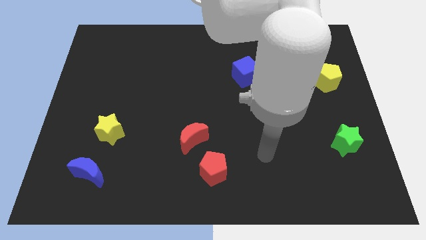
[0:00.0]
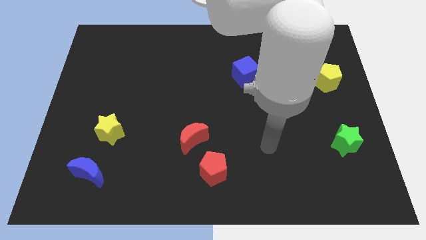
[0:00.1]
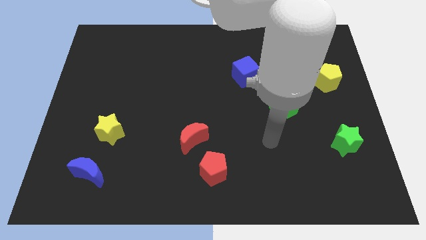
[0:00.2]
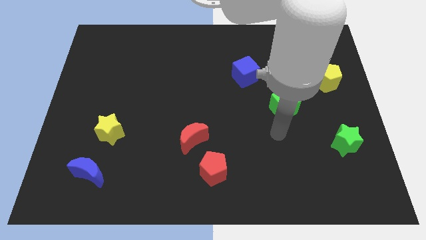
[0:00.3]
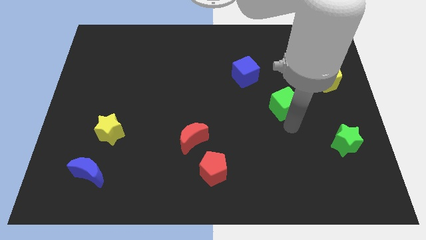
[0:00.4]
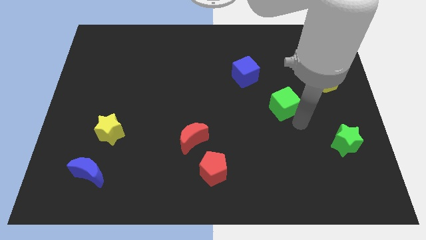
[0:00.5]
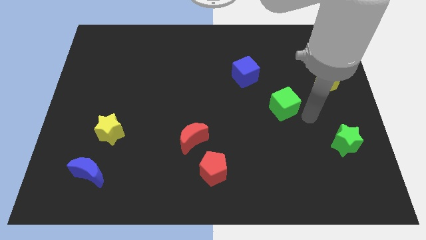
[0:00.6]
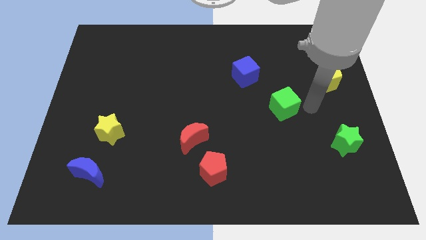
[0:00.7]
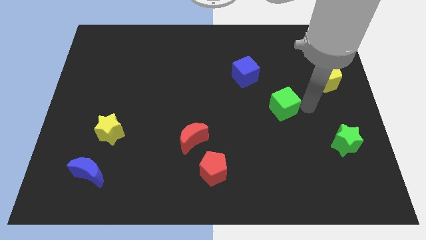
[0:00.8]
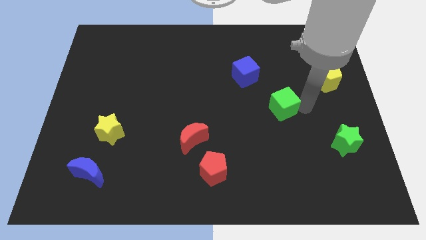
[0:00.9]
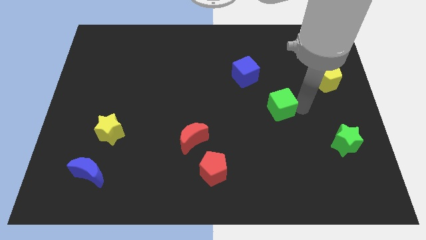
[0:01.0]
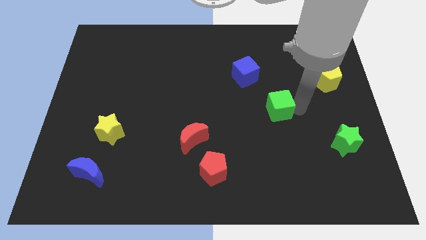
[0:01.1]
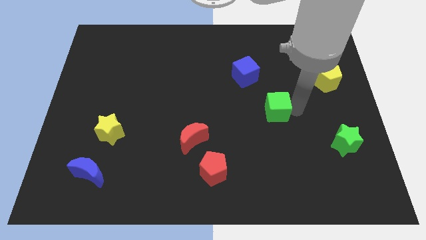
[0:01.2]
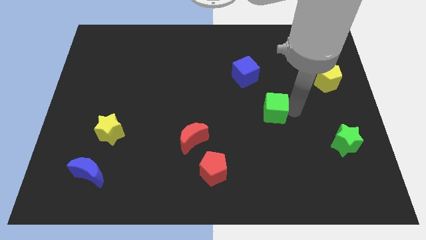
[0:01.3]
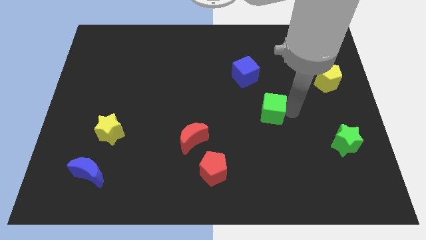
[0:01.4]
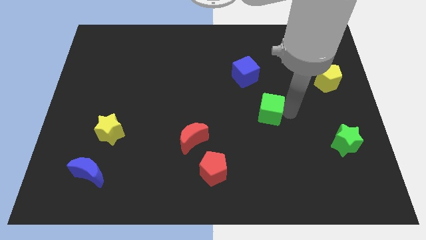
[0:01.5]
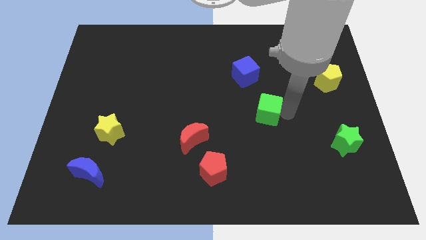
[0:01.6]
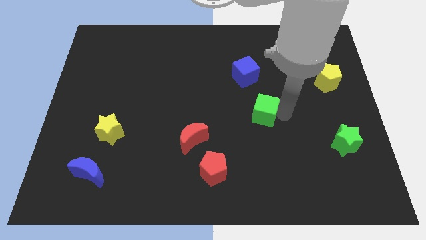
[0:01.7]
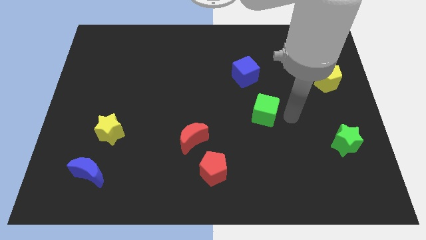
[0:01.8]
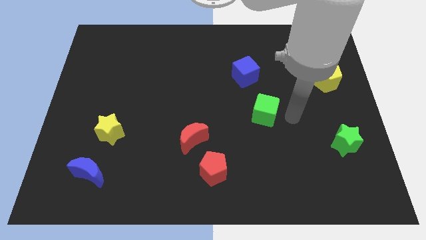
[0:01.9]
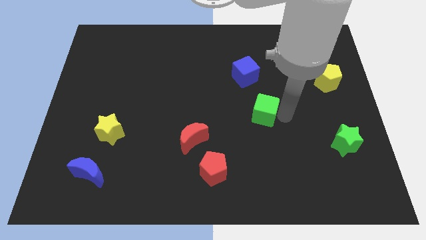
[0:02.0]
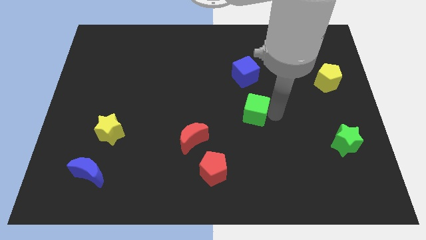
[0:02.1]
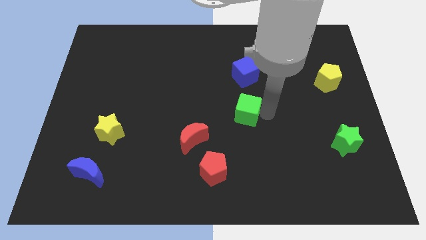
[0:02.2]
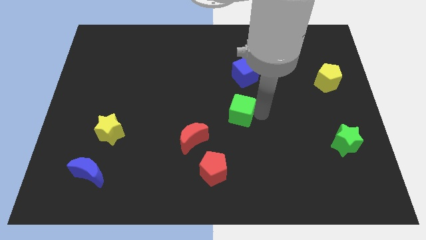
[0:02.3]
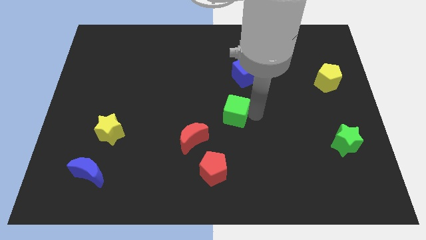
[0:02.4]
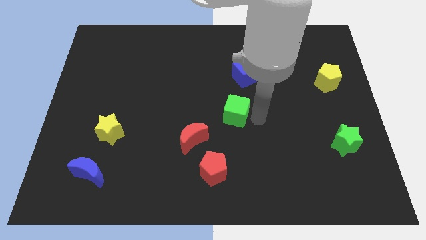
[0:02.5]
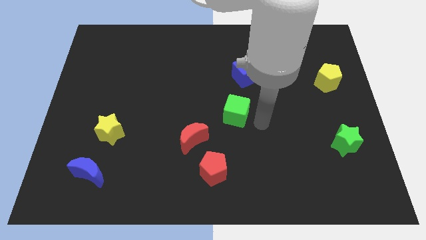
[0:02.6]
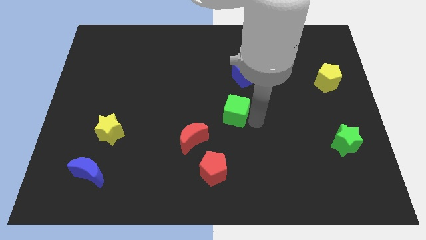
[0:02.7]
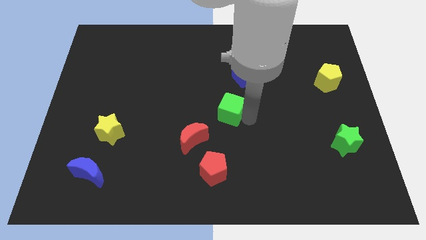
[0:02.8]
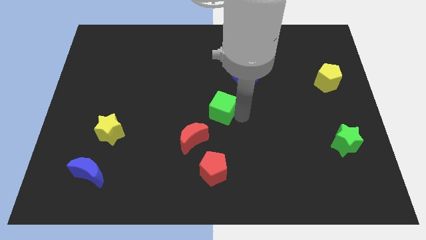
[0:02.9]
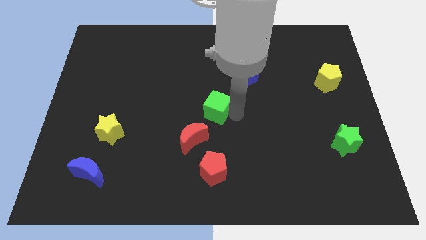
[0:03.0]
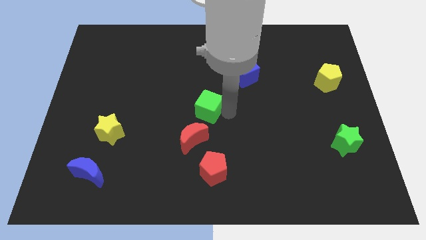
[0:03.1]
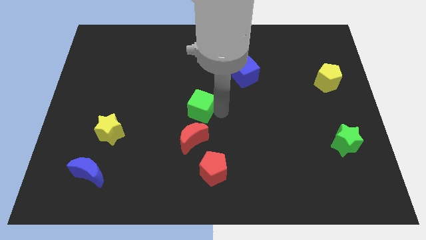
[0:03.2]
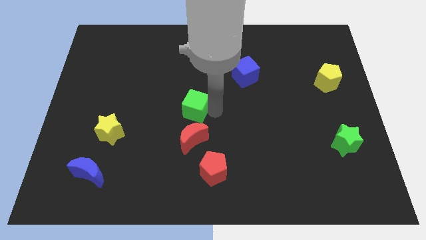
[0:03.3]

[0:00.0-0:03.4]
move the green cube left

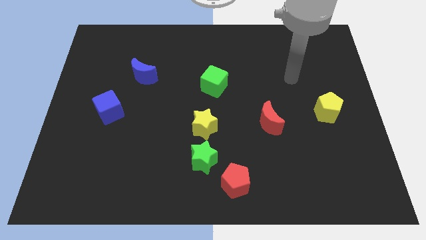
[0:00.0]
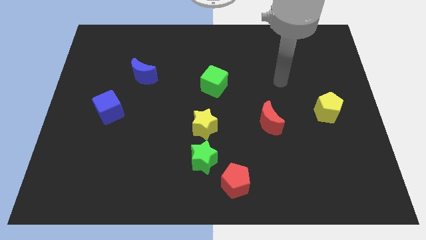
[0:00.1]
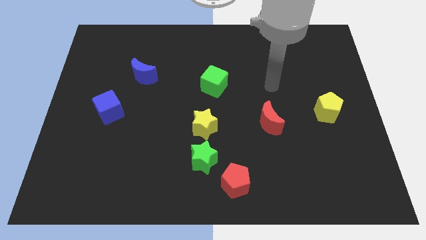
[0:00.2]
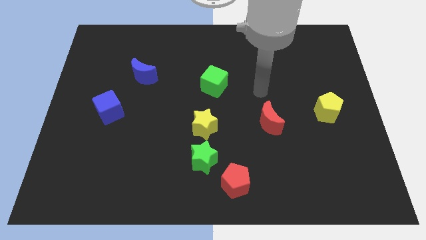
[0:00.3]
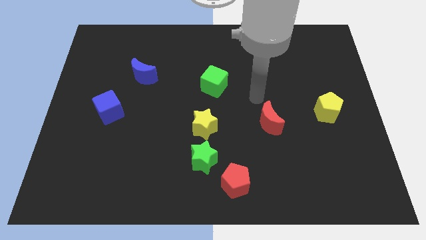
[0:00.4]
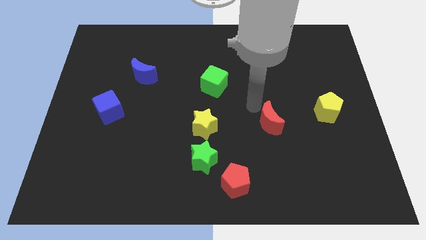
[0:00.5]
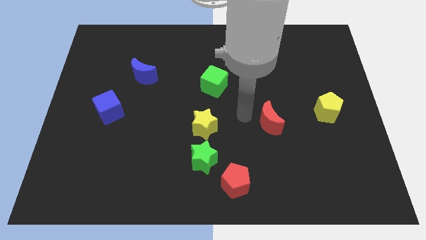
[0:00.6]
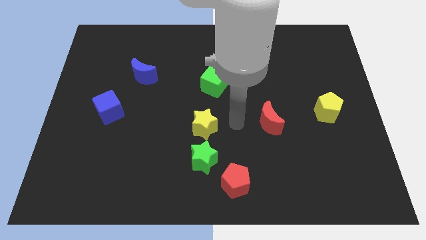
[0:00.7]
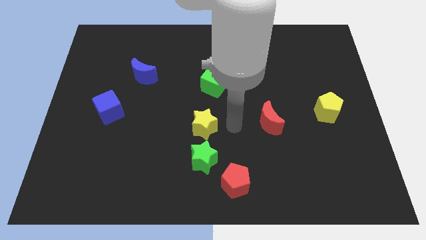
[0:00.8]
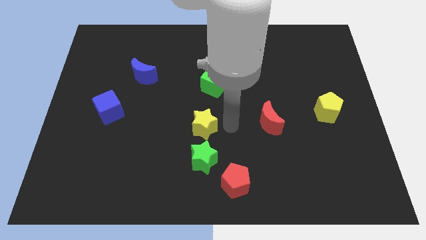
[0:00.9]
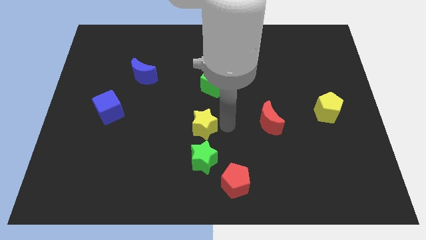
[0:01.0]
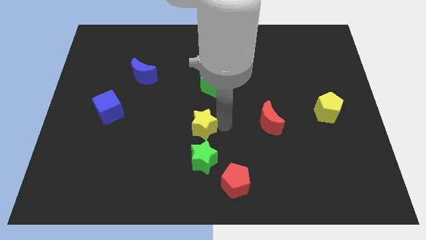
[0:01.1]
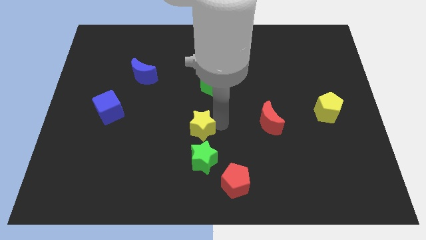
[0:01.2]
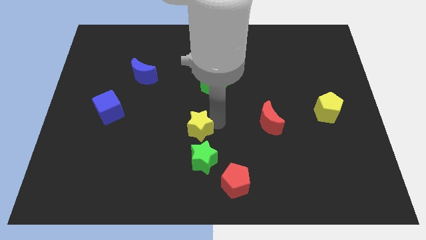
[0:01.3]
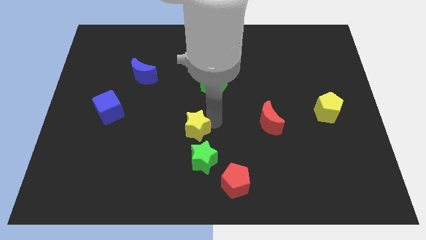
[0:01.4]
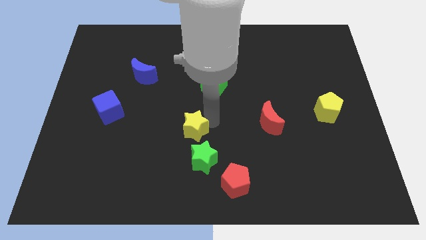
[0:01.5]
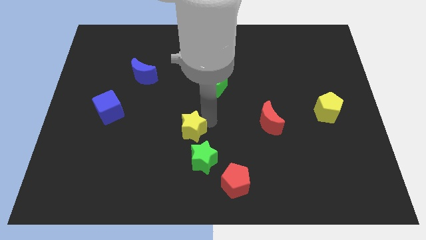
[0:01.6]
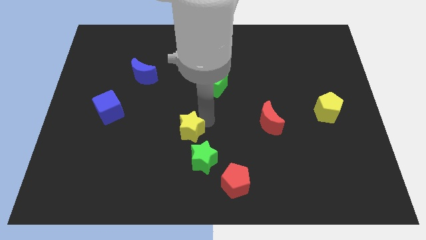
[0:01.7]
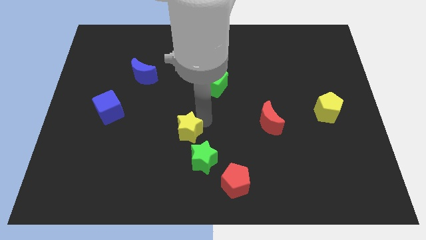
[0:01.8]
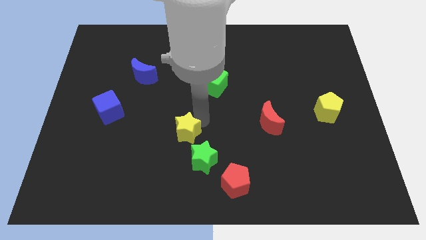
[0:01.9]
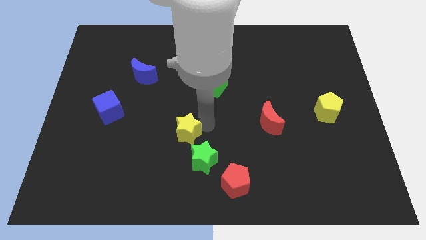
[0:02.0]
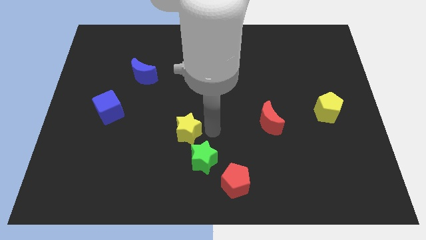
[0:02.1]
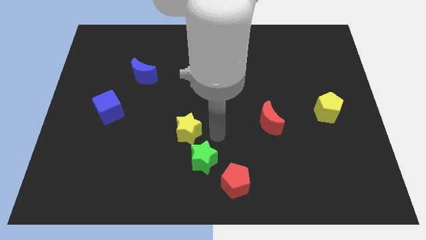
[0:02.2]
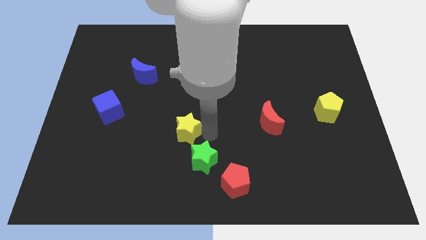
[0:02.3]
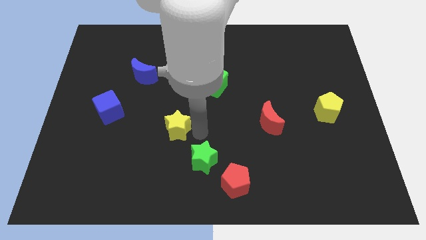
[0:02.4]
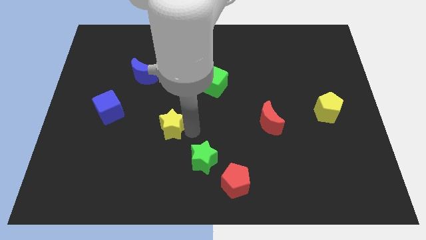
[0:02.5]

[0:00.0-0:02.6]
slightly slide the yellow star to the left

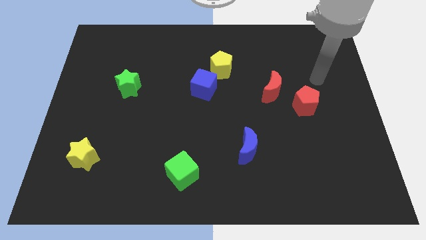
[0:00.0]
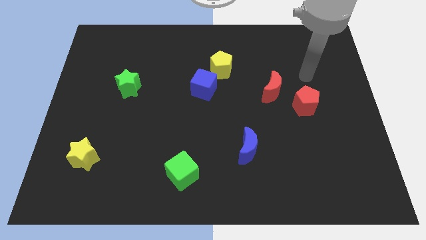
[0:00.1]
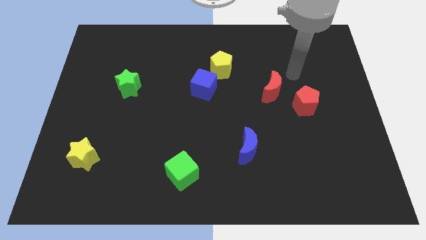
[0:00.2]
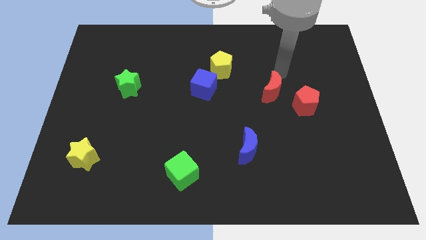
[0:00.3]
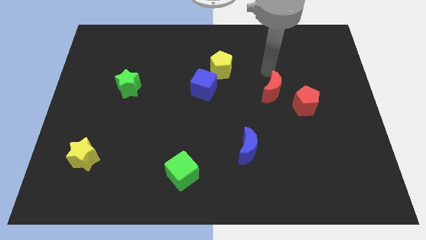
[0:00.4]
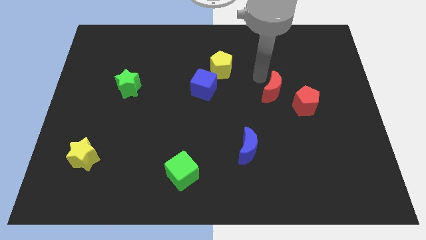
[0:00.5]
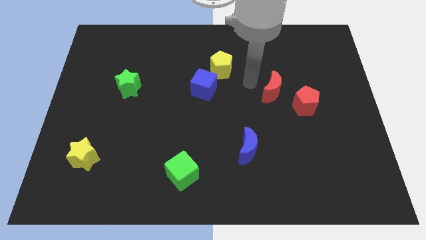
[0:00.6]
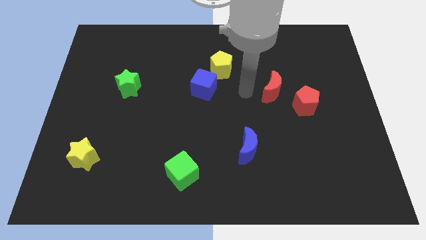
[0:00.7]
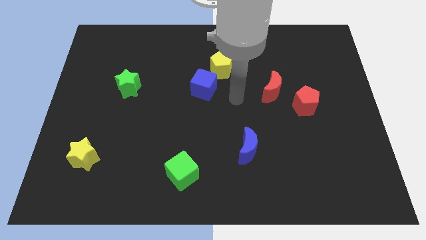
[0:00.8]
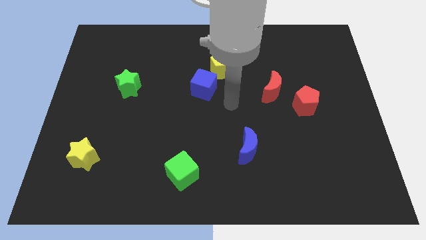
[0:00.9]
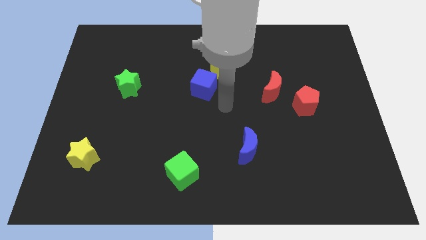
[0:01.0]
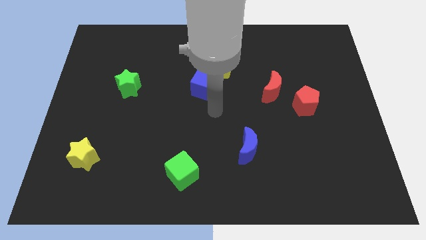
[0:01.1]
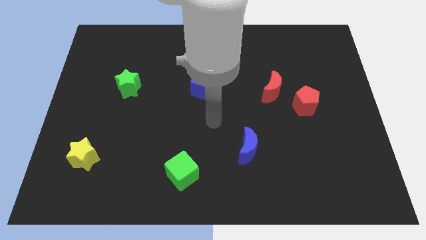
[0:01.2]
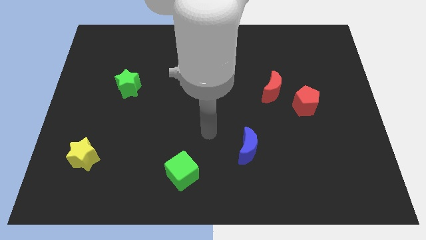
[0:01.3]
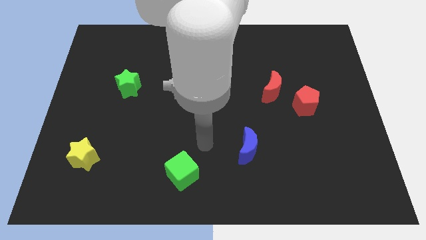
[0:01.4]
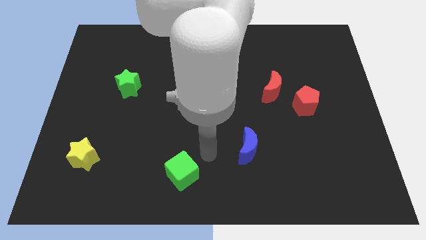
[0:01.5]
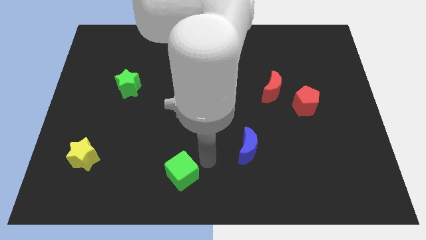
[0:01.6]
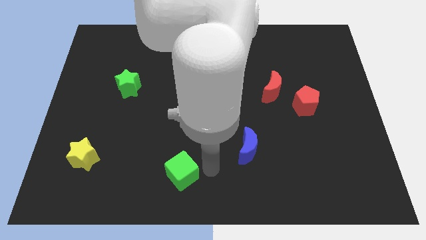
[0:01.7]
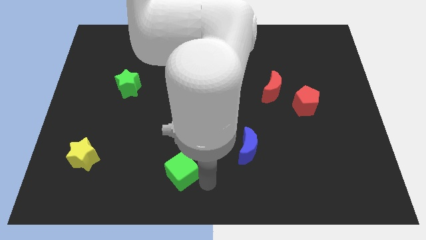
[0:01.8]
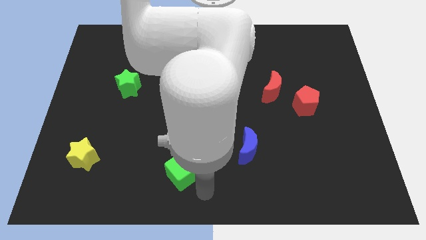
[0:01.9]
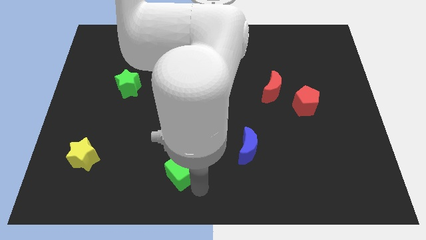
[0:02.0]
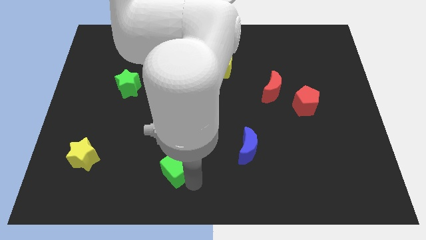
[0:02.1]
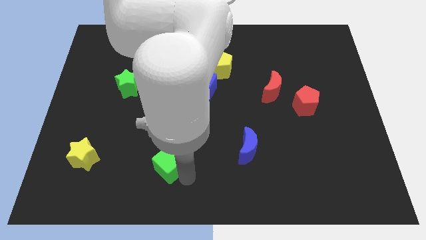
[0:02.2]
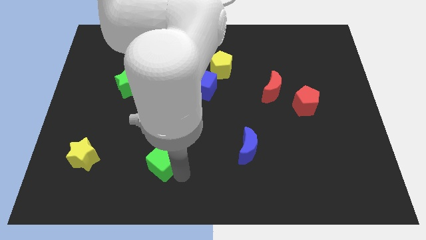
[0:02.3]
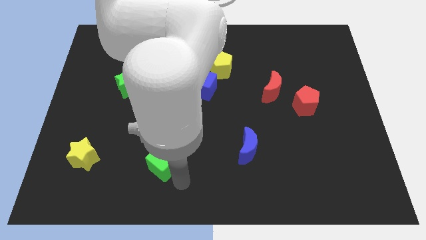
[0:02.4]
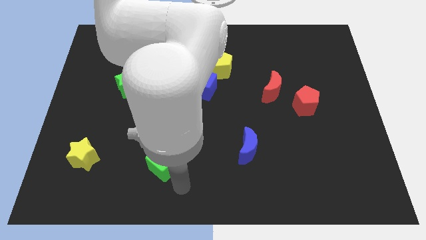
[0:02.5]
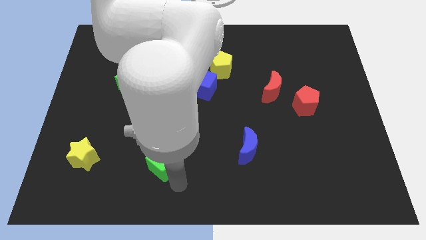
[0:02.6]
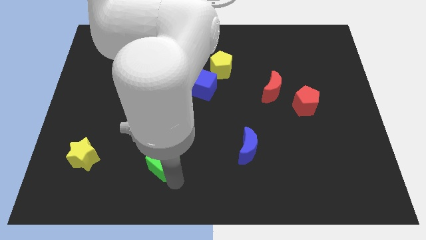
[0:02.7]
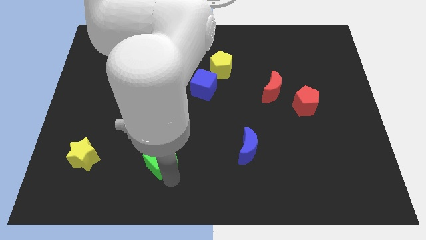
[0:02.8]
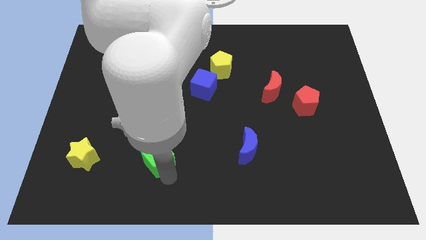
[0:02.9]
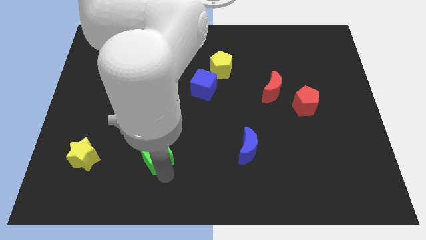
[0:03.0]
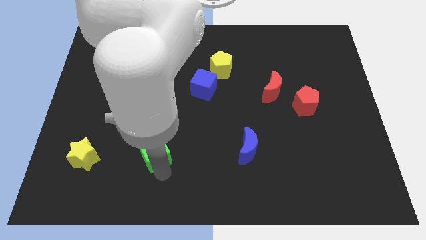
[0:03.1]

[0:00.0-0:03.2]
move the green cube diagonally up and left somewhat
